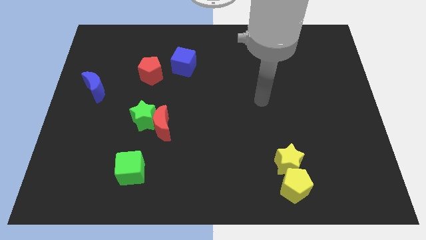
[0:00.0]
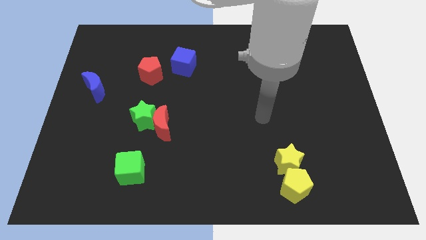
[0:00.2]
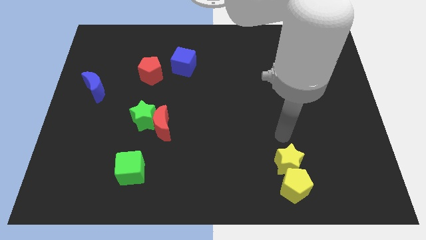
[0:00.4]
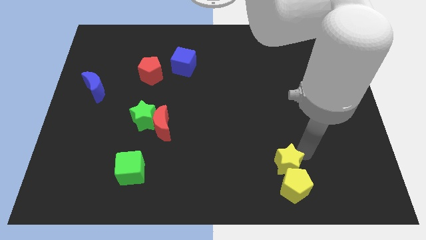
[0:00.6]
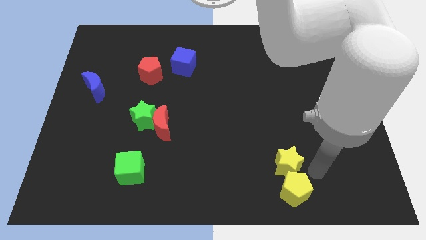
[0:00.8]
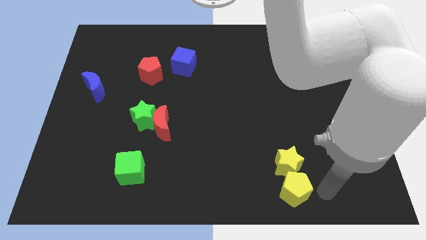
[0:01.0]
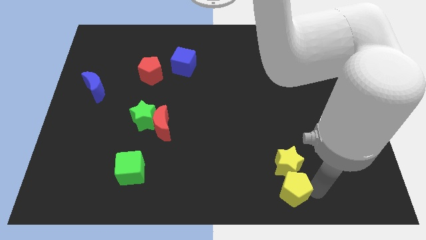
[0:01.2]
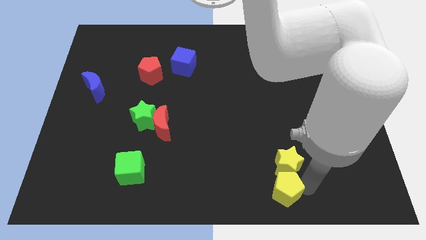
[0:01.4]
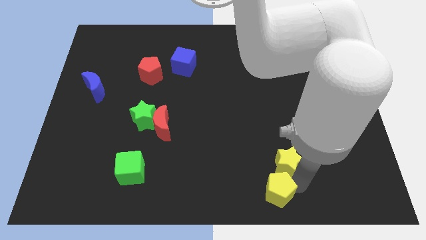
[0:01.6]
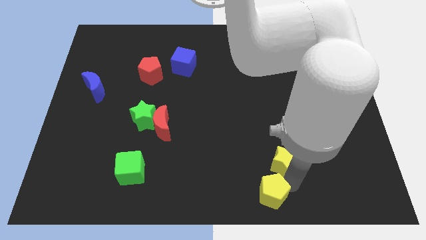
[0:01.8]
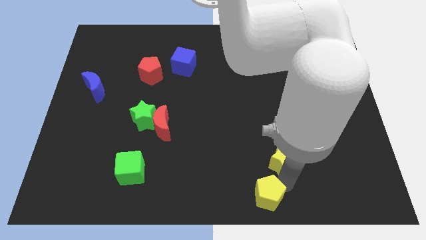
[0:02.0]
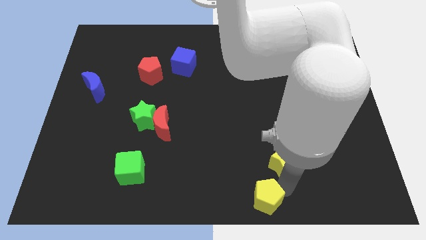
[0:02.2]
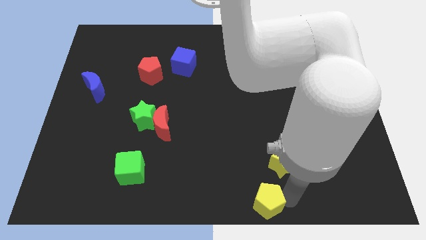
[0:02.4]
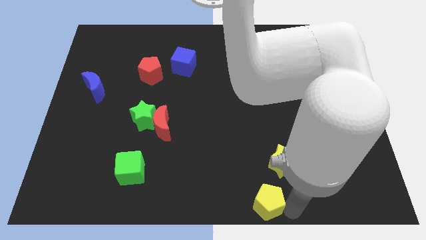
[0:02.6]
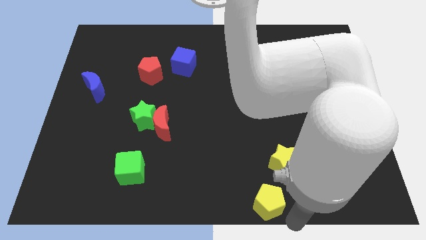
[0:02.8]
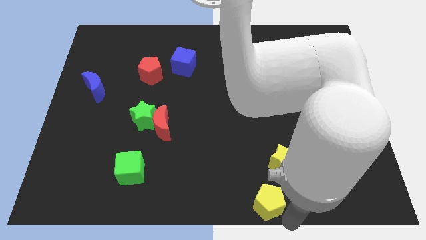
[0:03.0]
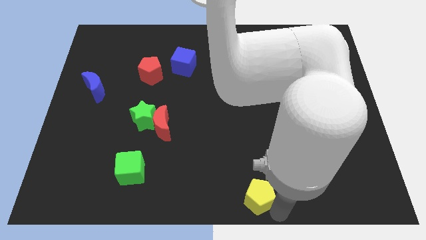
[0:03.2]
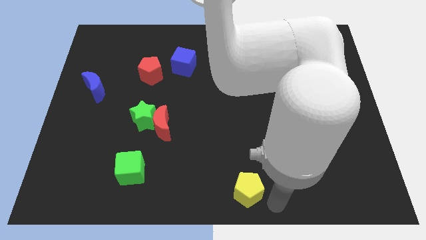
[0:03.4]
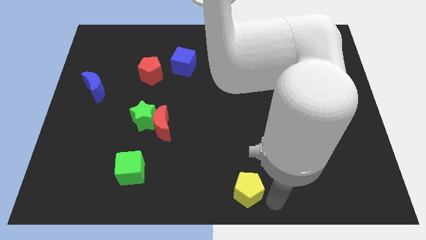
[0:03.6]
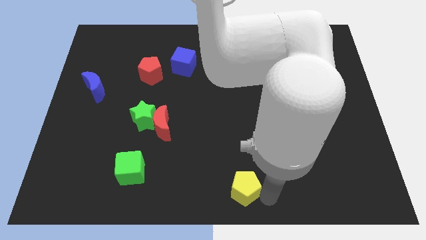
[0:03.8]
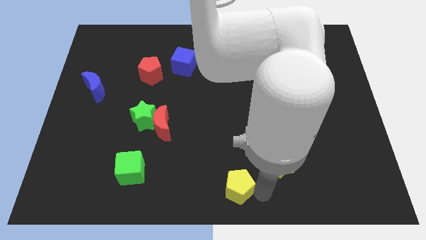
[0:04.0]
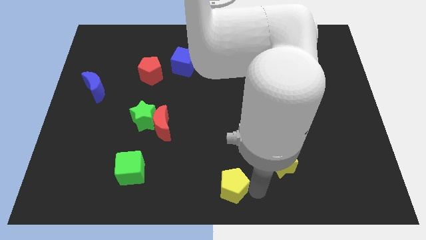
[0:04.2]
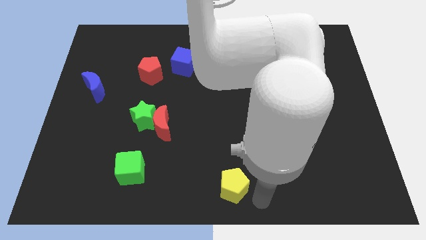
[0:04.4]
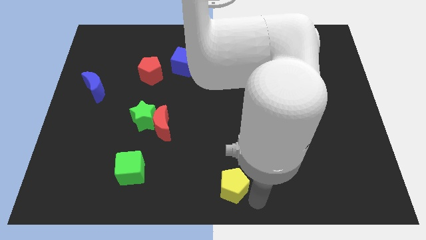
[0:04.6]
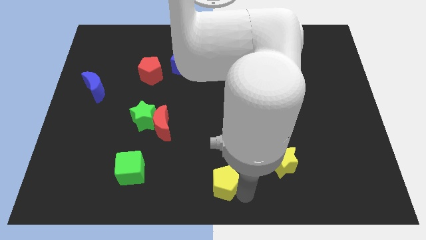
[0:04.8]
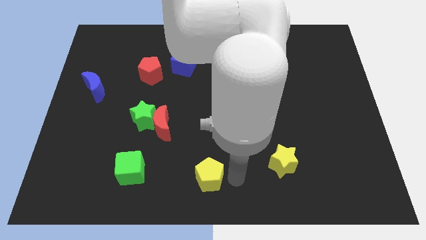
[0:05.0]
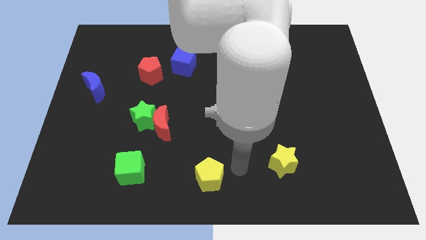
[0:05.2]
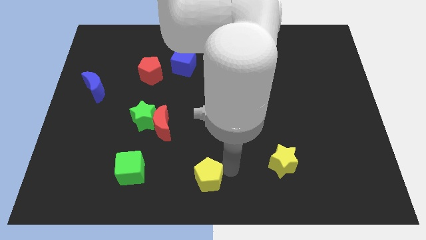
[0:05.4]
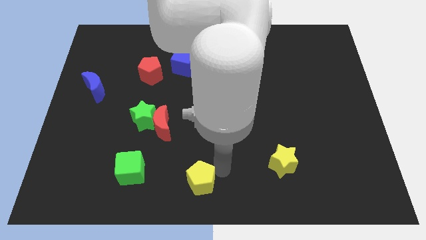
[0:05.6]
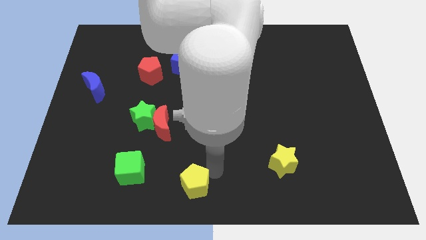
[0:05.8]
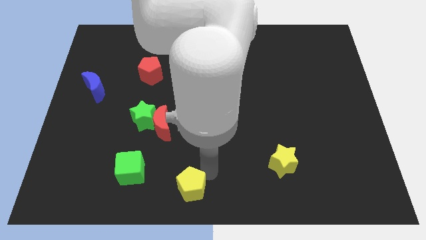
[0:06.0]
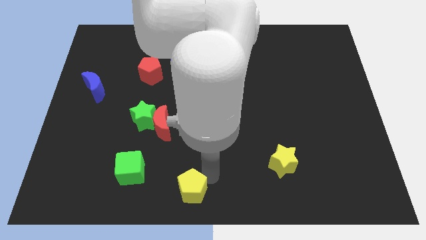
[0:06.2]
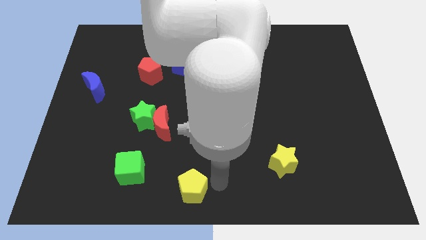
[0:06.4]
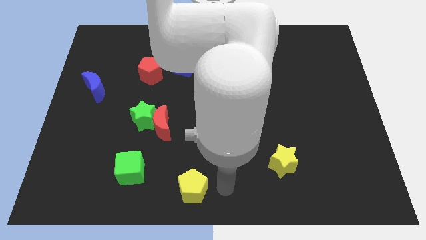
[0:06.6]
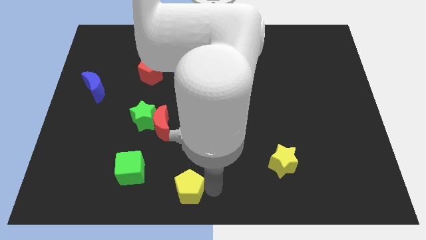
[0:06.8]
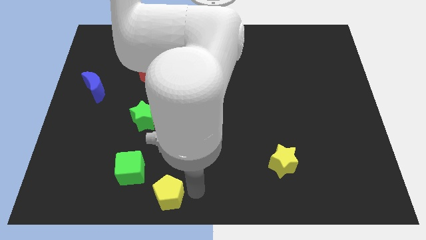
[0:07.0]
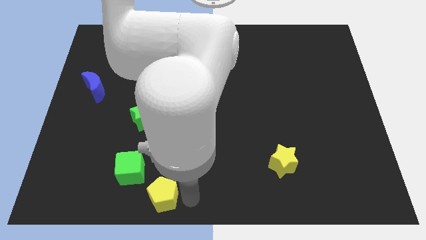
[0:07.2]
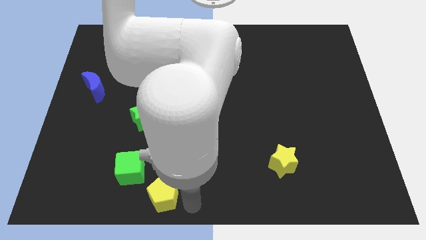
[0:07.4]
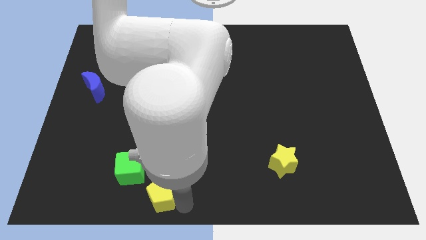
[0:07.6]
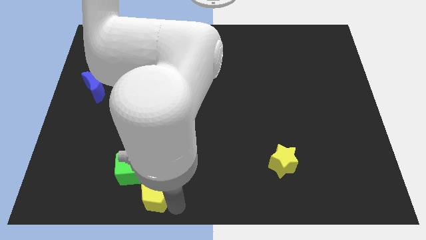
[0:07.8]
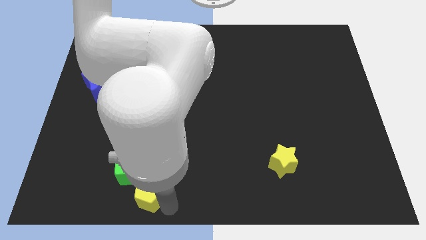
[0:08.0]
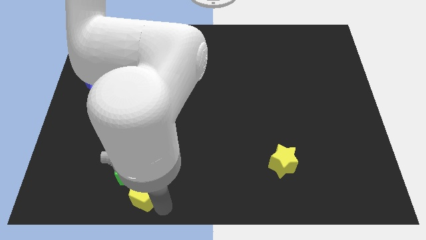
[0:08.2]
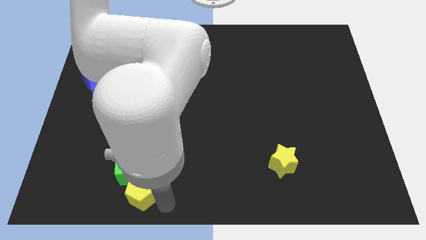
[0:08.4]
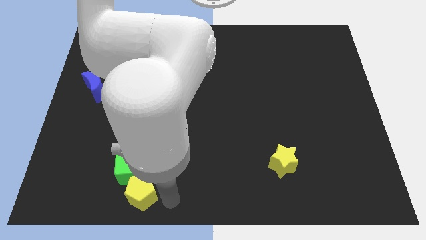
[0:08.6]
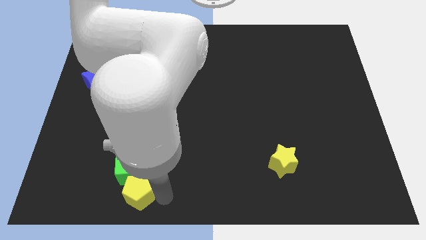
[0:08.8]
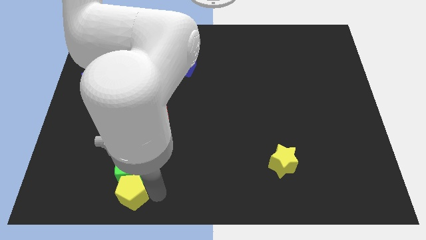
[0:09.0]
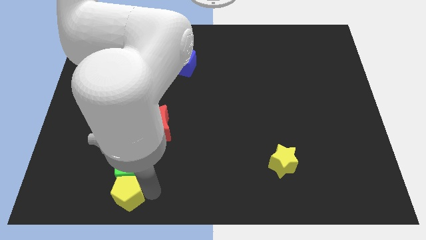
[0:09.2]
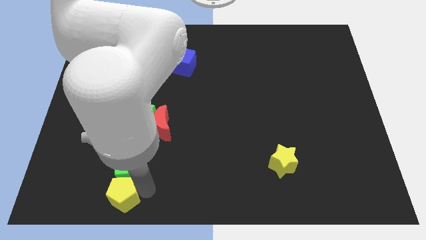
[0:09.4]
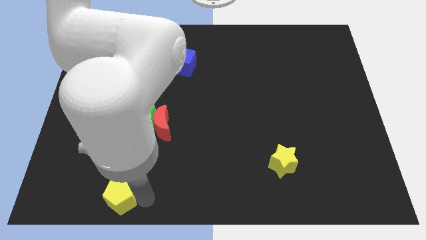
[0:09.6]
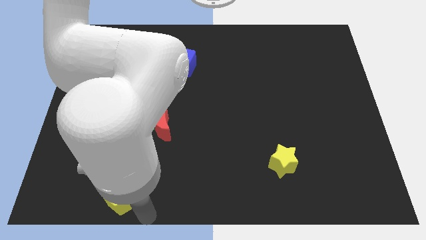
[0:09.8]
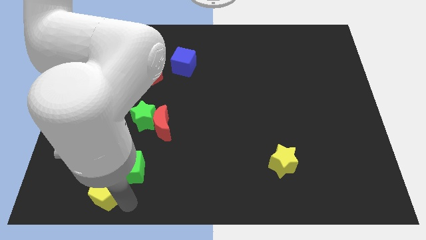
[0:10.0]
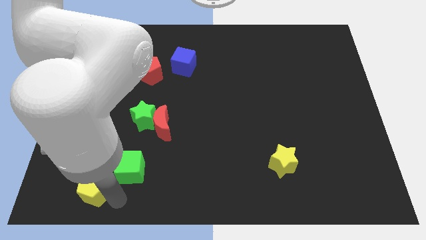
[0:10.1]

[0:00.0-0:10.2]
move the yellow pentagon to the left side of the green cube

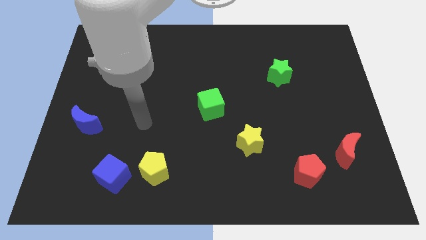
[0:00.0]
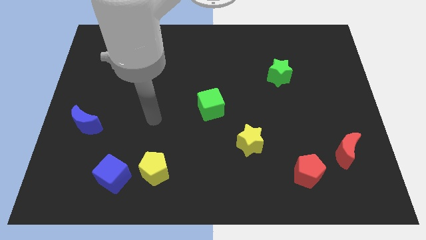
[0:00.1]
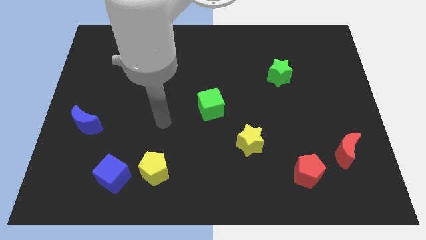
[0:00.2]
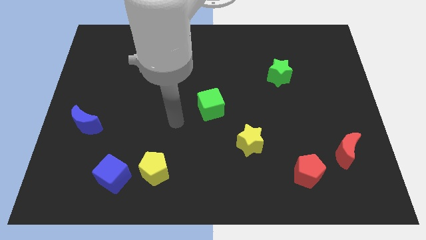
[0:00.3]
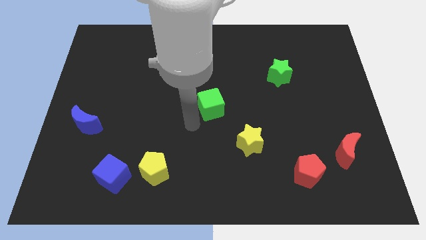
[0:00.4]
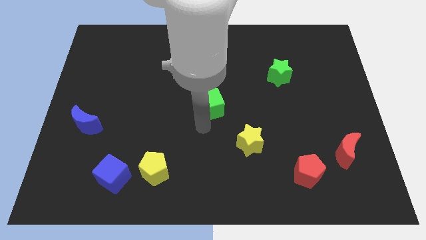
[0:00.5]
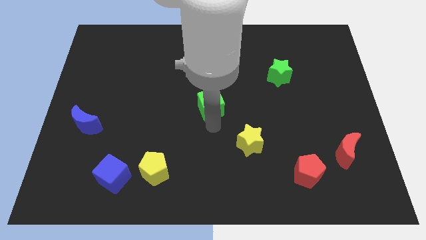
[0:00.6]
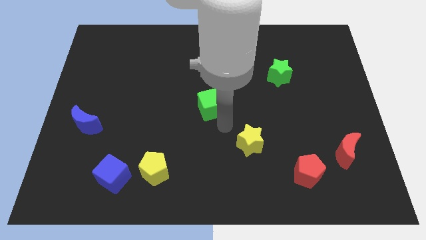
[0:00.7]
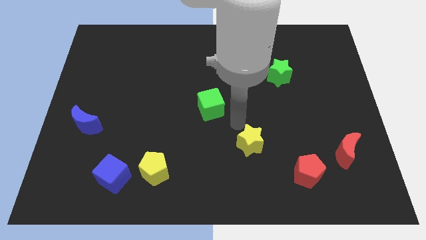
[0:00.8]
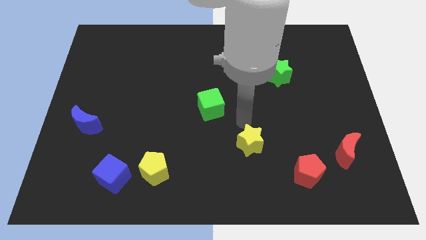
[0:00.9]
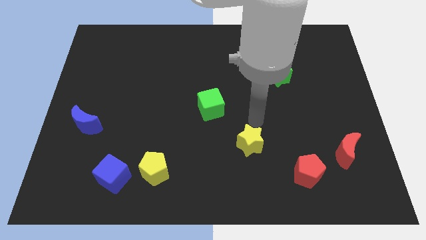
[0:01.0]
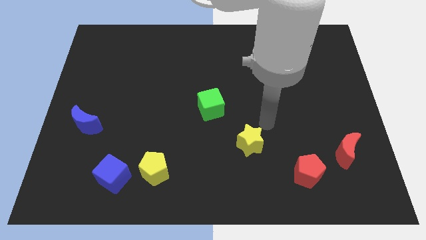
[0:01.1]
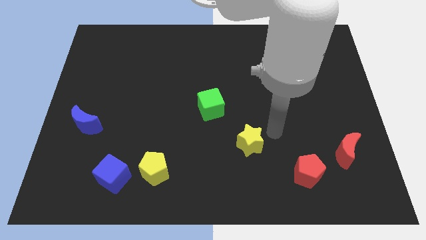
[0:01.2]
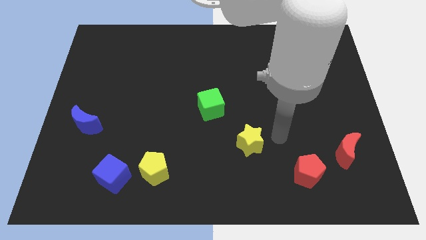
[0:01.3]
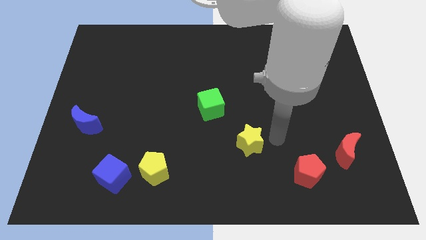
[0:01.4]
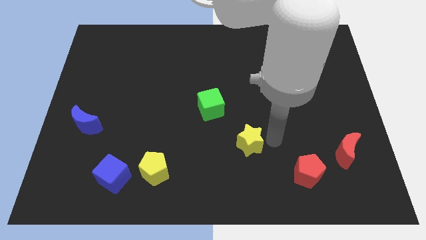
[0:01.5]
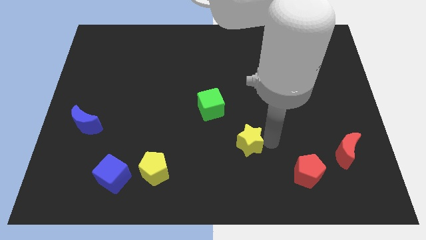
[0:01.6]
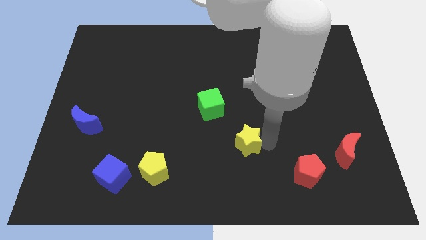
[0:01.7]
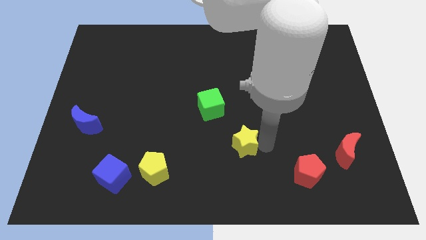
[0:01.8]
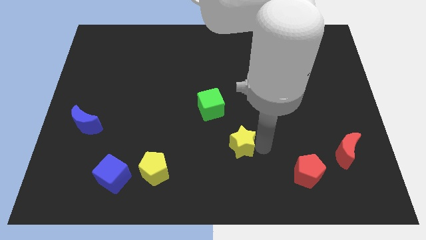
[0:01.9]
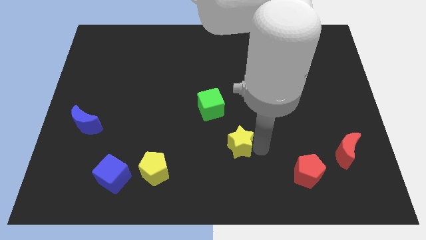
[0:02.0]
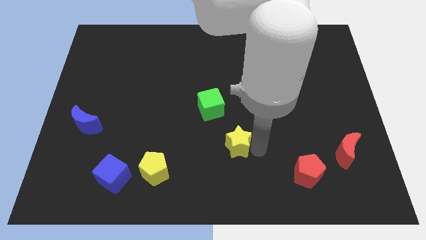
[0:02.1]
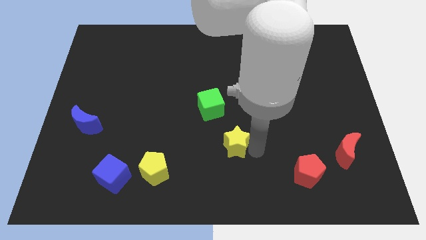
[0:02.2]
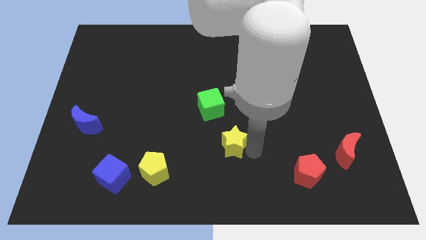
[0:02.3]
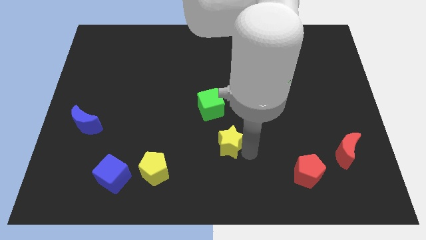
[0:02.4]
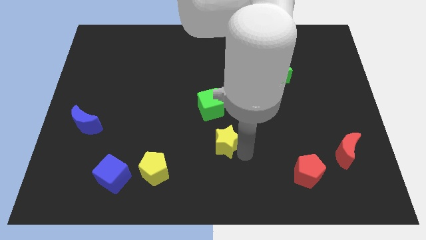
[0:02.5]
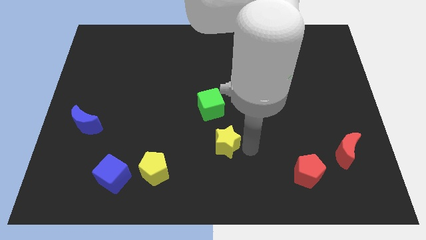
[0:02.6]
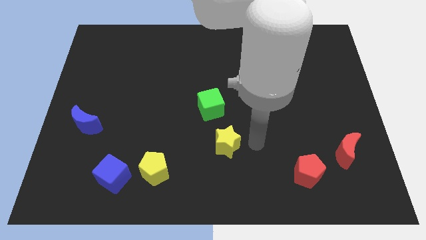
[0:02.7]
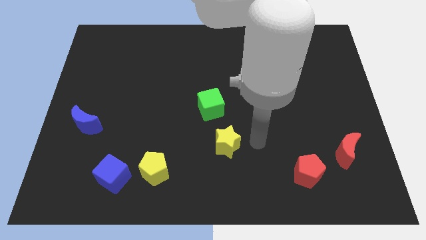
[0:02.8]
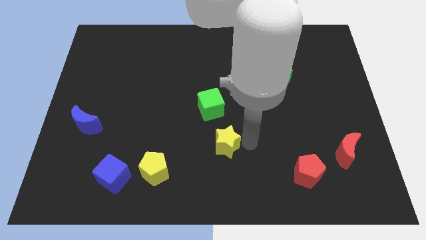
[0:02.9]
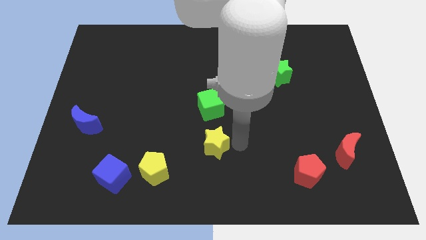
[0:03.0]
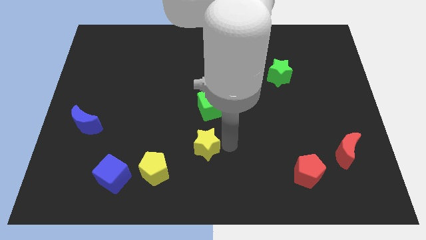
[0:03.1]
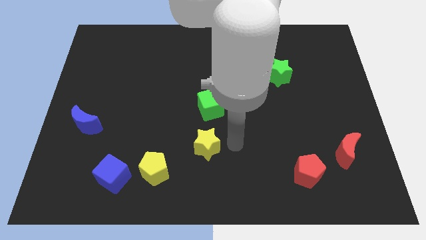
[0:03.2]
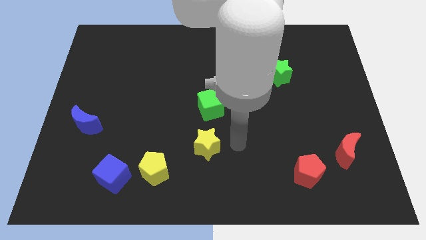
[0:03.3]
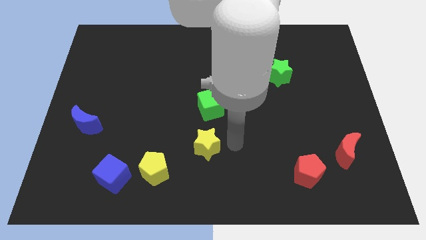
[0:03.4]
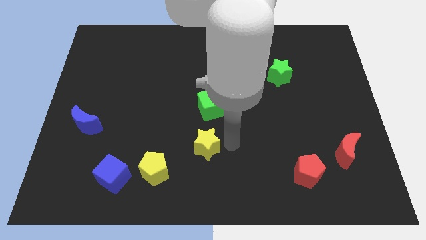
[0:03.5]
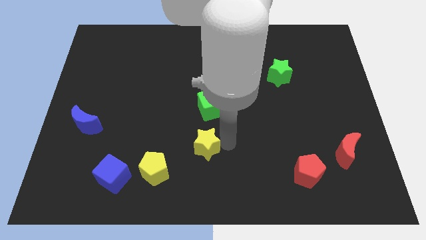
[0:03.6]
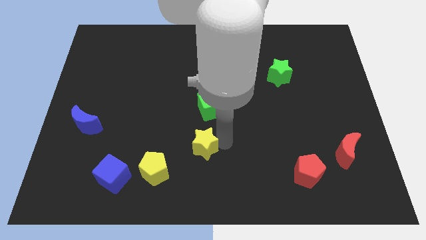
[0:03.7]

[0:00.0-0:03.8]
push the yellow star to the top right of the yellow pentagon
